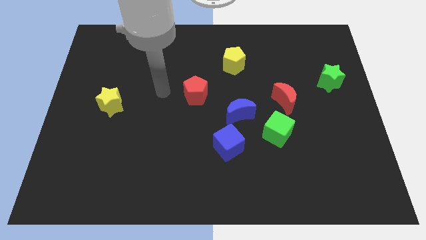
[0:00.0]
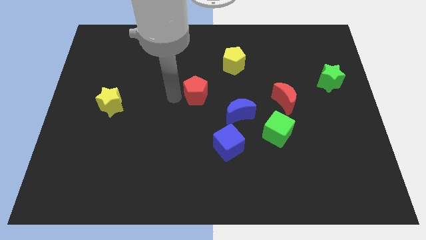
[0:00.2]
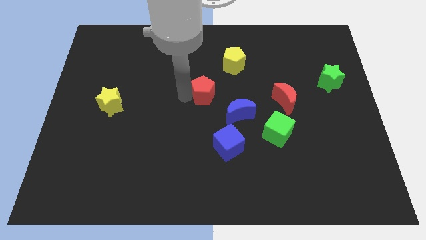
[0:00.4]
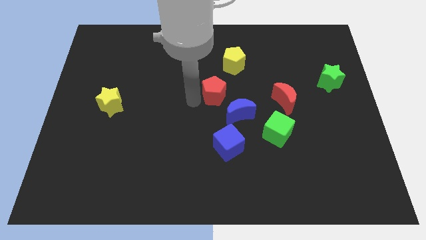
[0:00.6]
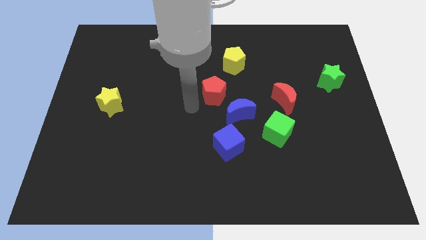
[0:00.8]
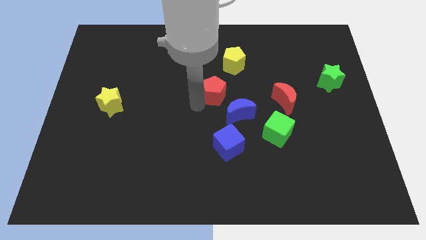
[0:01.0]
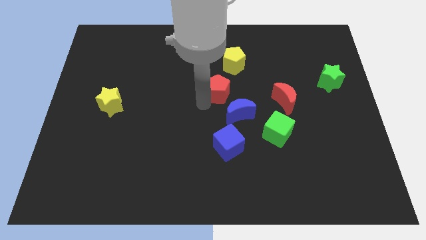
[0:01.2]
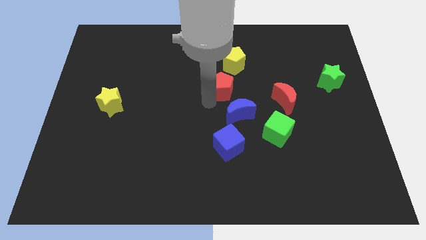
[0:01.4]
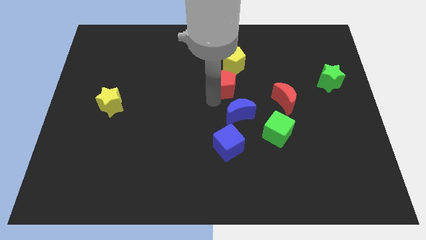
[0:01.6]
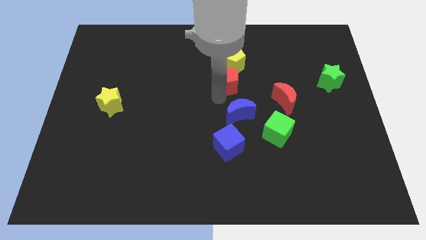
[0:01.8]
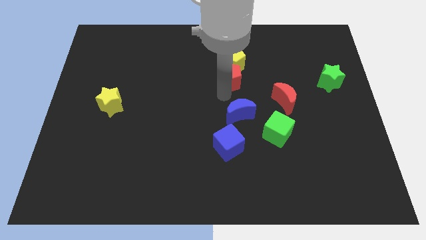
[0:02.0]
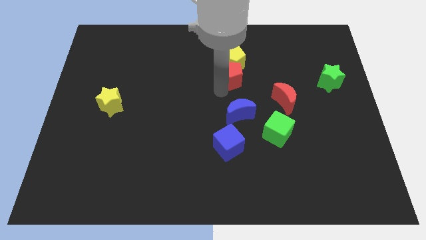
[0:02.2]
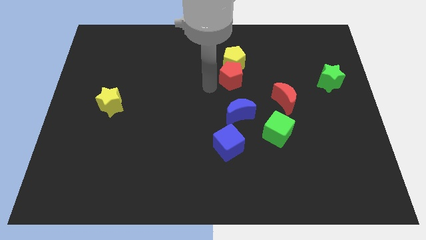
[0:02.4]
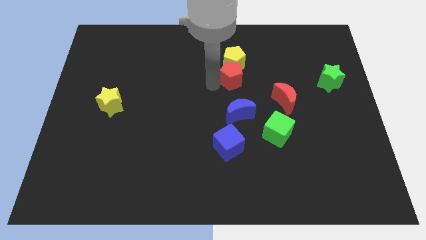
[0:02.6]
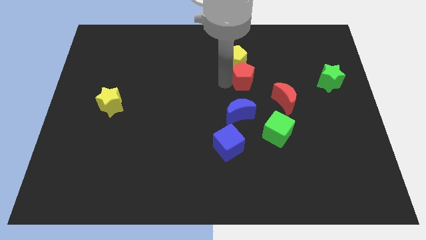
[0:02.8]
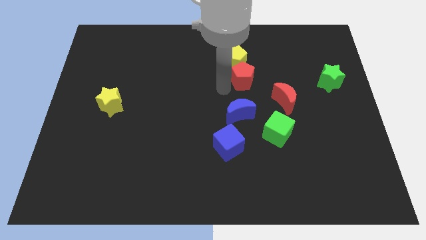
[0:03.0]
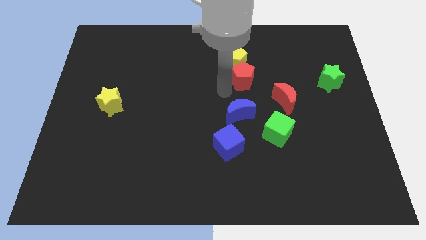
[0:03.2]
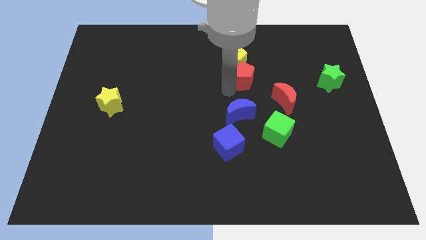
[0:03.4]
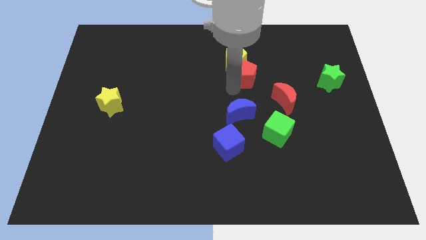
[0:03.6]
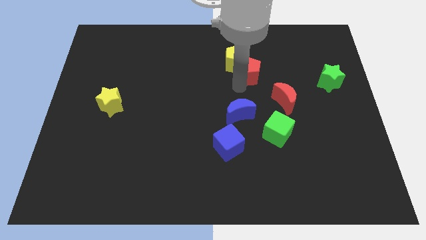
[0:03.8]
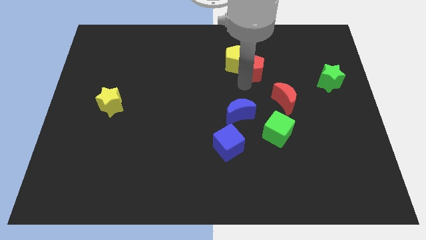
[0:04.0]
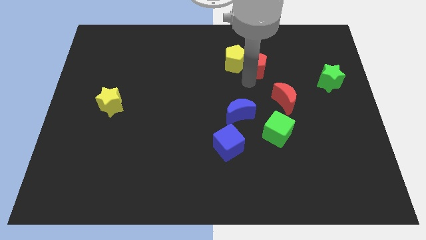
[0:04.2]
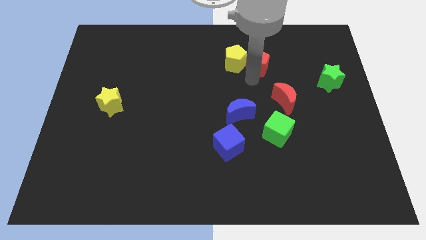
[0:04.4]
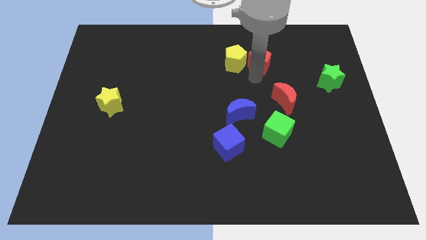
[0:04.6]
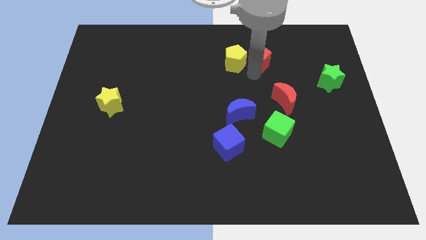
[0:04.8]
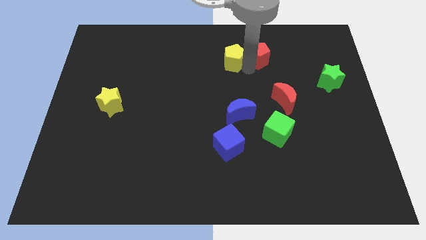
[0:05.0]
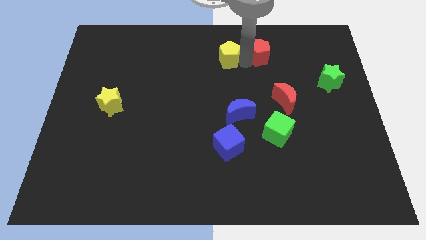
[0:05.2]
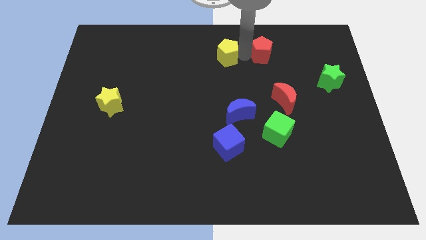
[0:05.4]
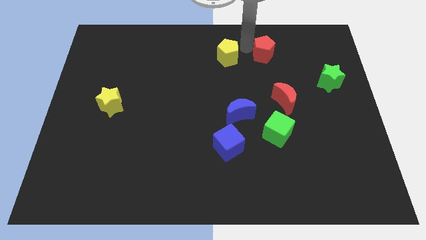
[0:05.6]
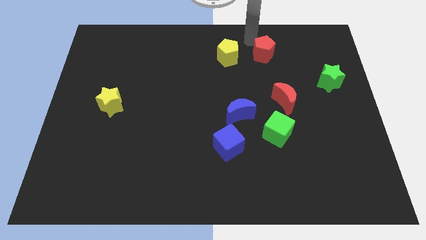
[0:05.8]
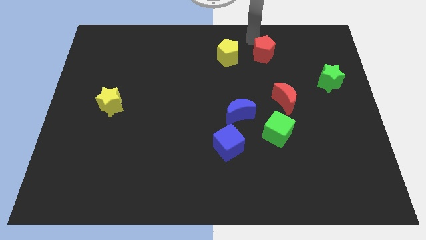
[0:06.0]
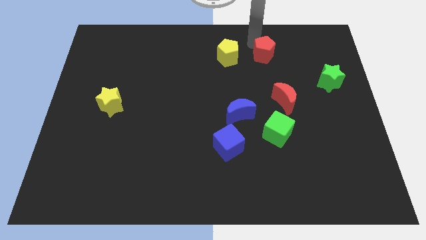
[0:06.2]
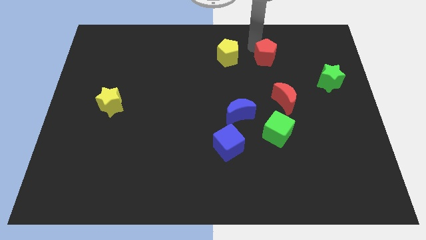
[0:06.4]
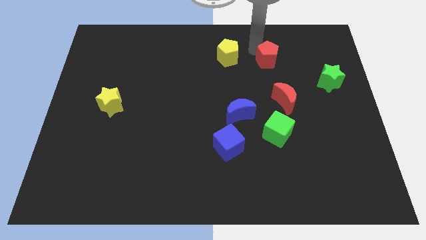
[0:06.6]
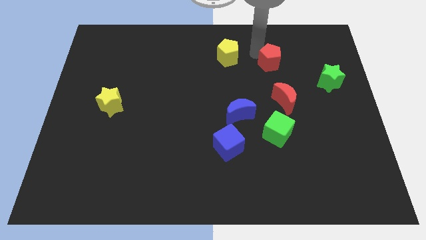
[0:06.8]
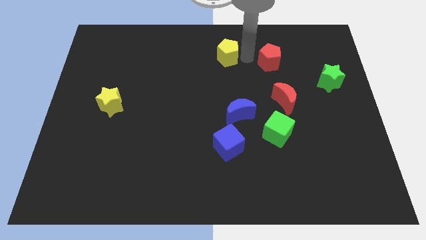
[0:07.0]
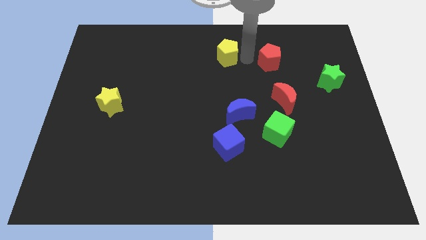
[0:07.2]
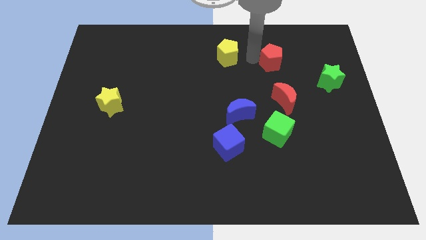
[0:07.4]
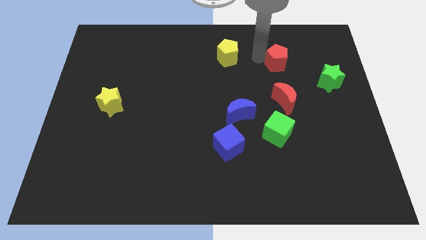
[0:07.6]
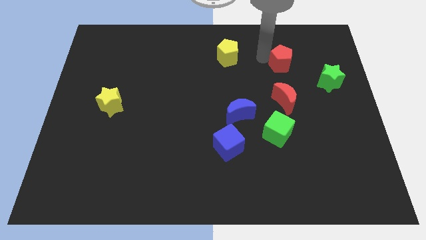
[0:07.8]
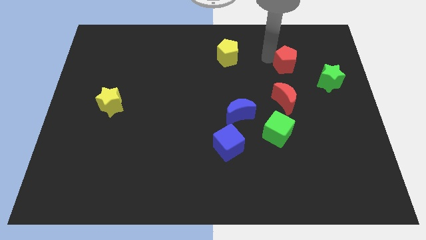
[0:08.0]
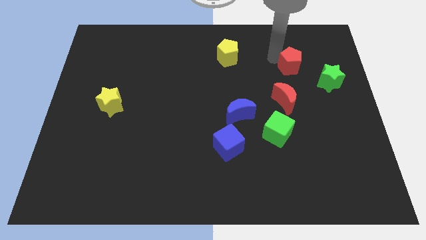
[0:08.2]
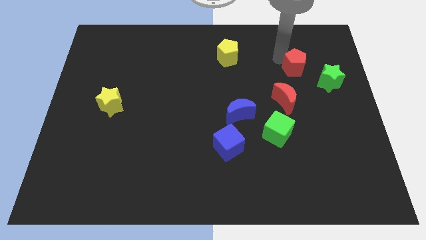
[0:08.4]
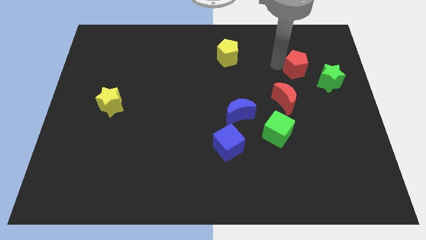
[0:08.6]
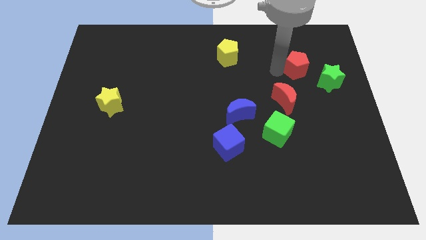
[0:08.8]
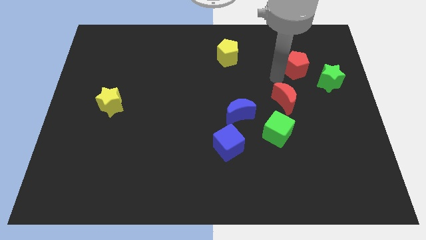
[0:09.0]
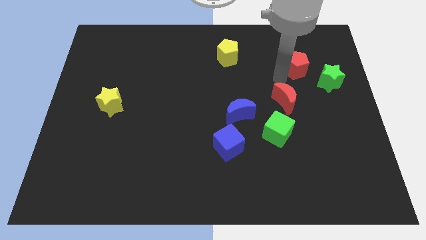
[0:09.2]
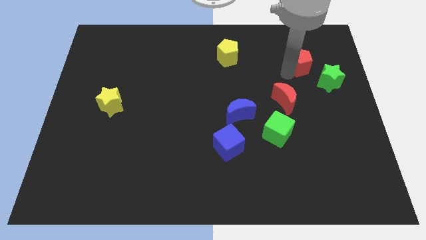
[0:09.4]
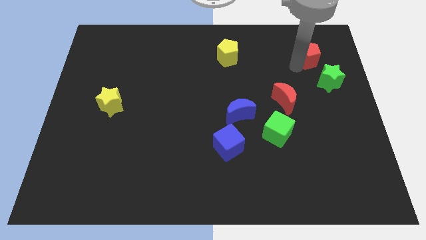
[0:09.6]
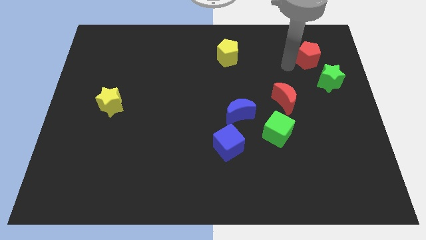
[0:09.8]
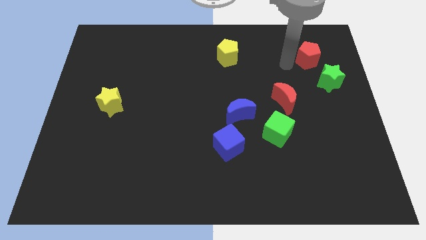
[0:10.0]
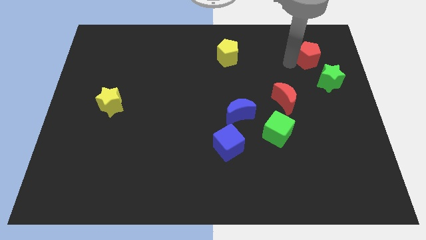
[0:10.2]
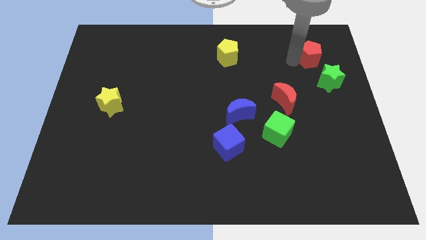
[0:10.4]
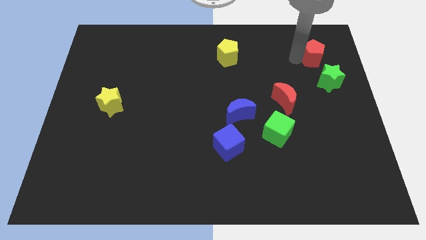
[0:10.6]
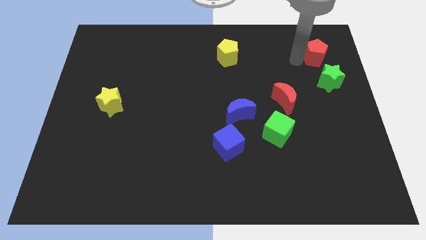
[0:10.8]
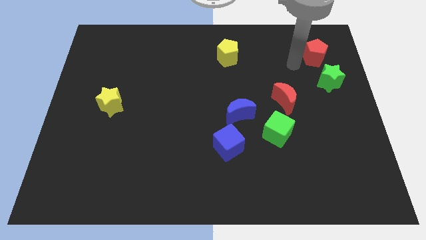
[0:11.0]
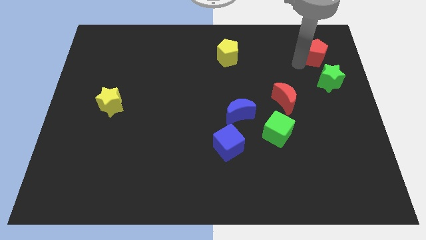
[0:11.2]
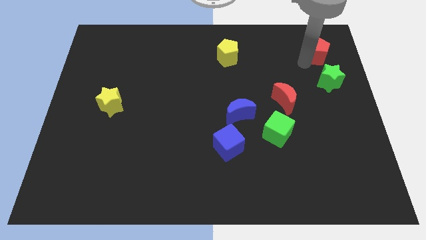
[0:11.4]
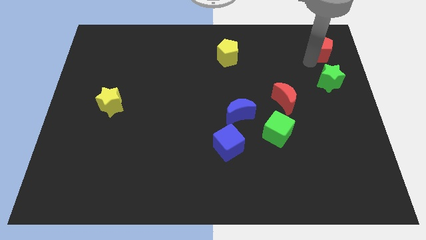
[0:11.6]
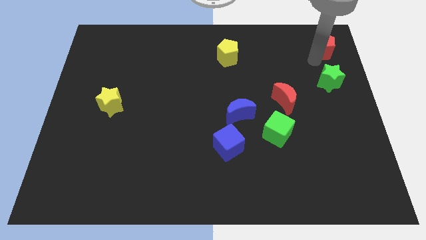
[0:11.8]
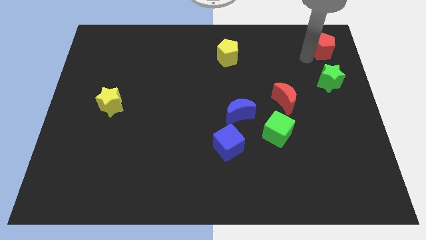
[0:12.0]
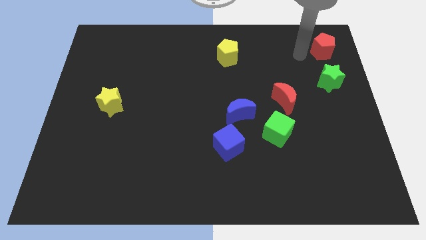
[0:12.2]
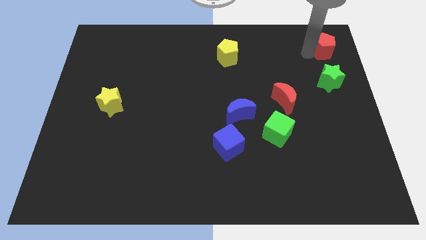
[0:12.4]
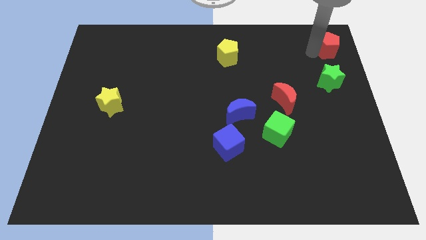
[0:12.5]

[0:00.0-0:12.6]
move the red pentagon to the top right
